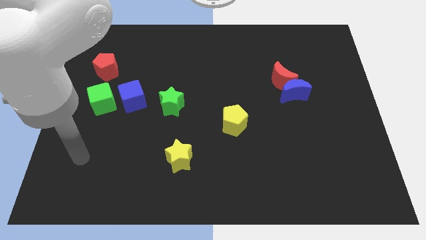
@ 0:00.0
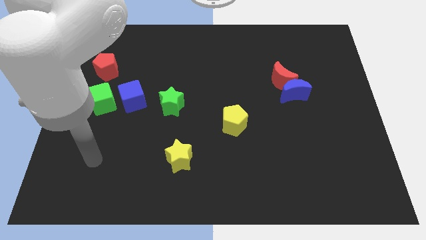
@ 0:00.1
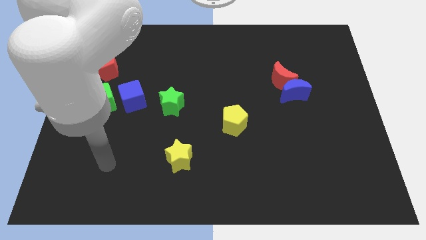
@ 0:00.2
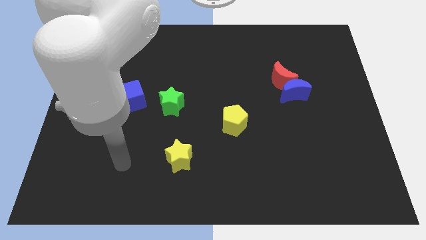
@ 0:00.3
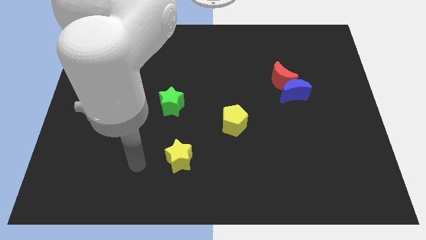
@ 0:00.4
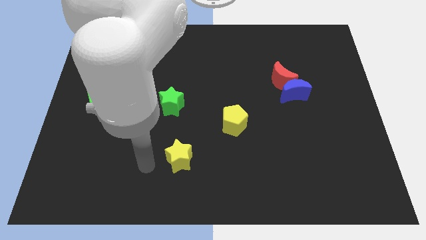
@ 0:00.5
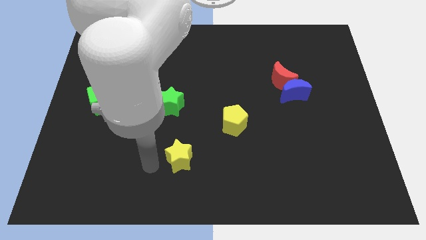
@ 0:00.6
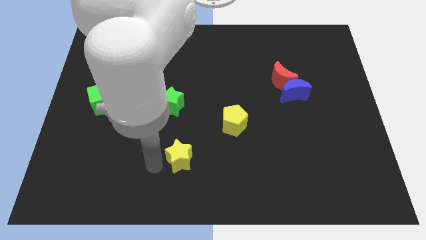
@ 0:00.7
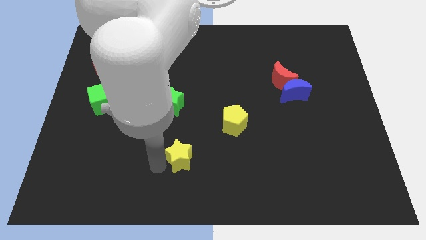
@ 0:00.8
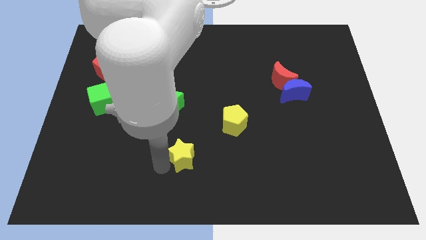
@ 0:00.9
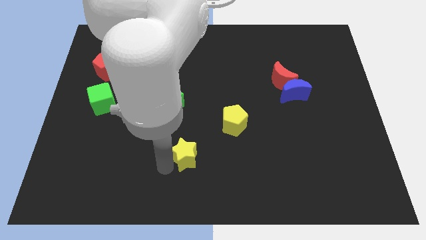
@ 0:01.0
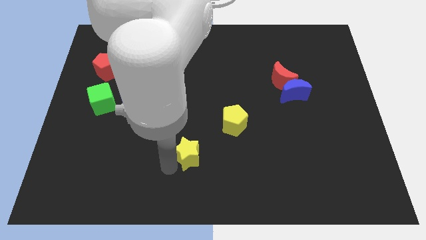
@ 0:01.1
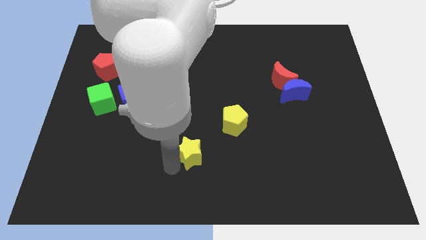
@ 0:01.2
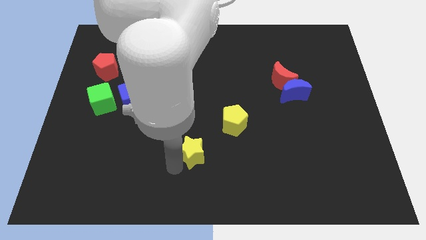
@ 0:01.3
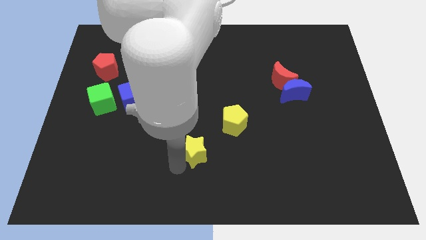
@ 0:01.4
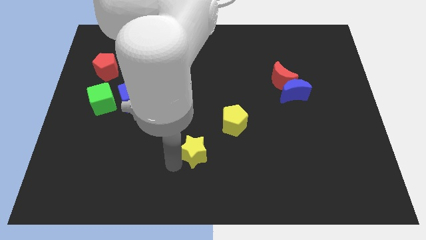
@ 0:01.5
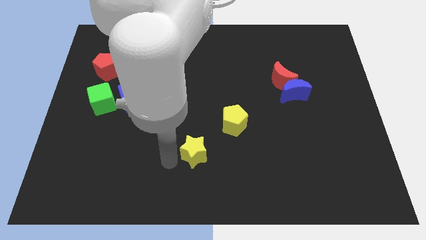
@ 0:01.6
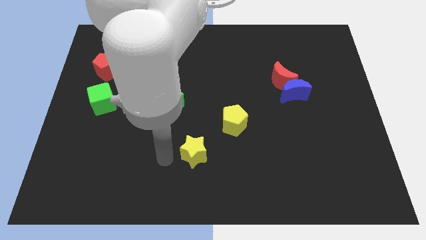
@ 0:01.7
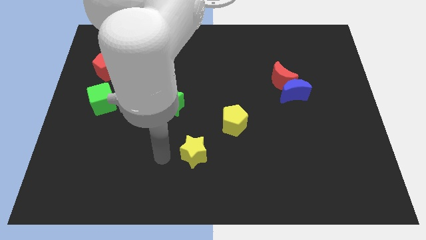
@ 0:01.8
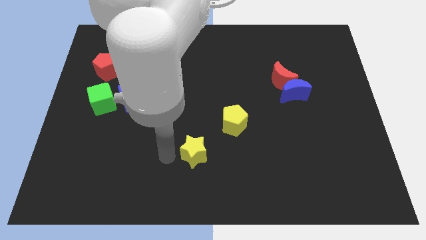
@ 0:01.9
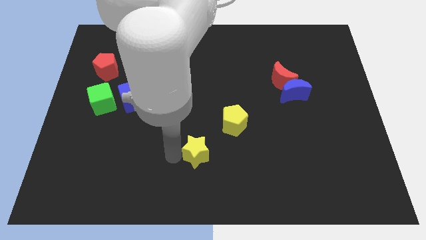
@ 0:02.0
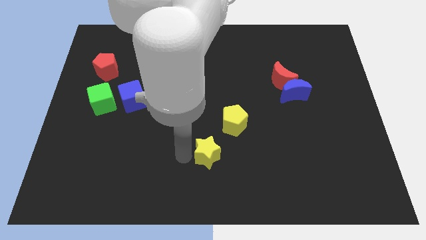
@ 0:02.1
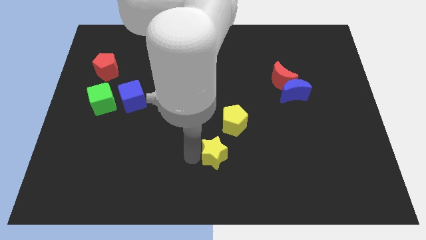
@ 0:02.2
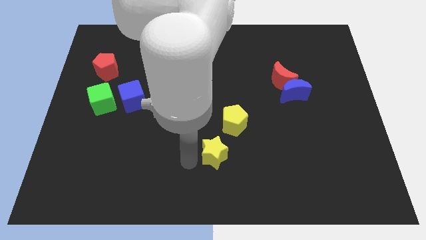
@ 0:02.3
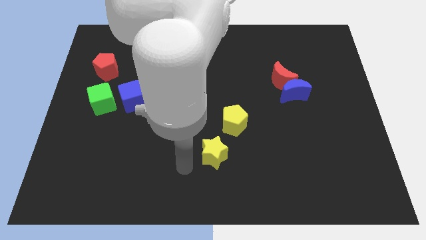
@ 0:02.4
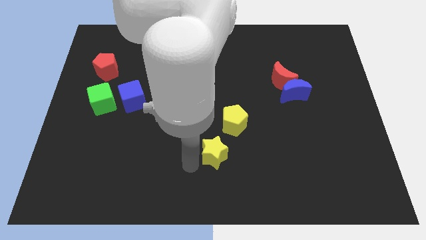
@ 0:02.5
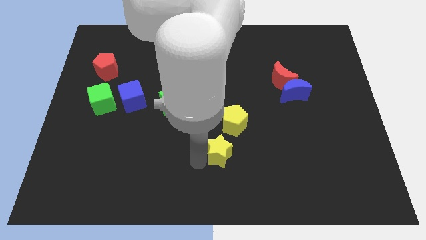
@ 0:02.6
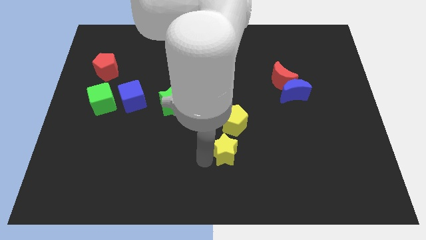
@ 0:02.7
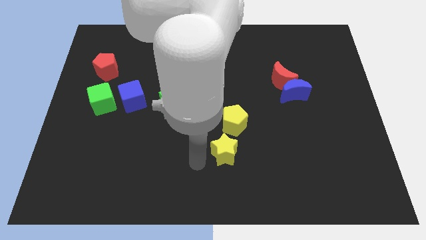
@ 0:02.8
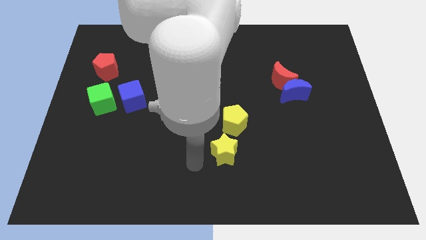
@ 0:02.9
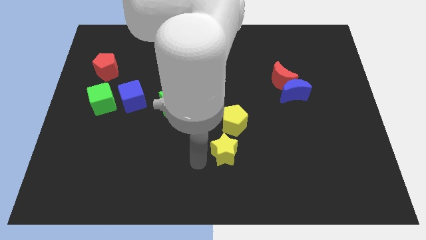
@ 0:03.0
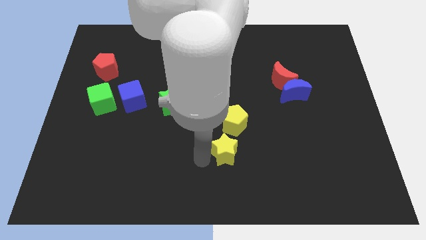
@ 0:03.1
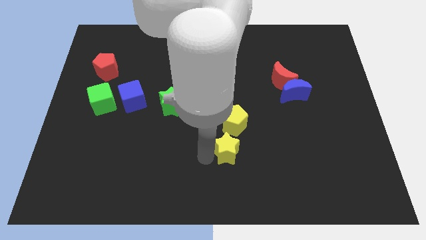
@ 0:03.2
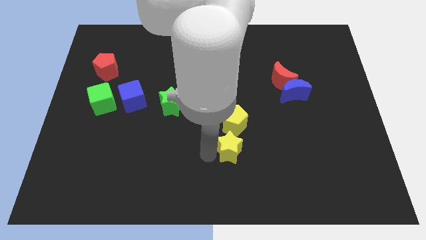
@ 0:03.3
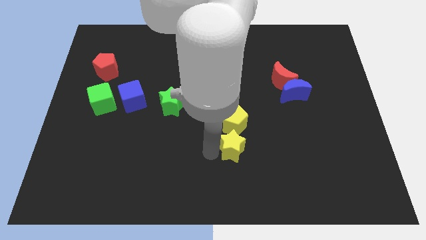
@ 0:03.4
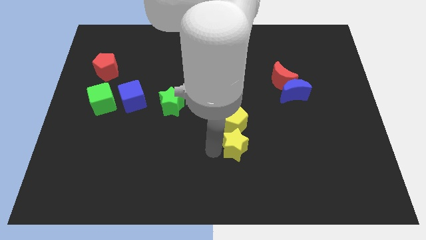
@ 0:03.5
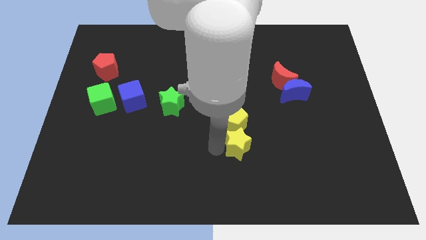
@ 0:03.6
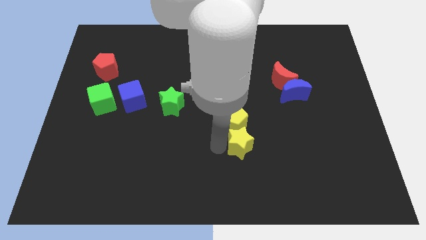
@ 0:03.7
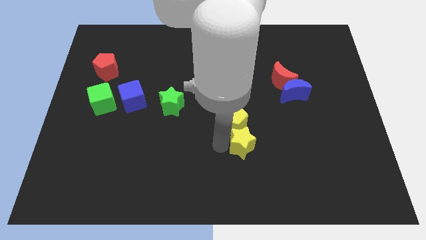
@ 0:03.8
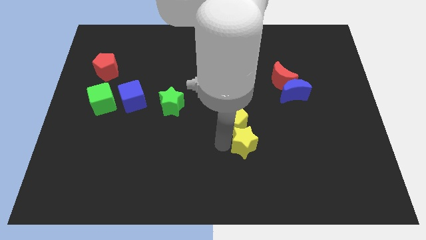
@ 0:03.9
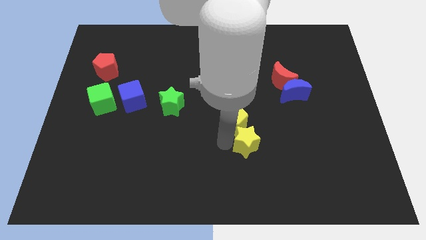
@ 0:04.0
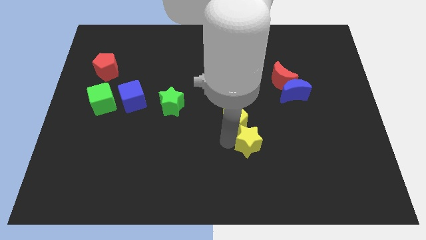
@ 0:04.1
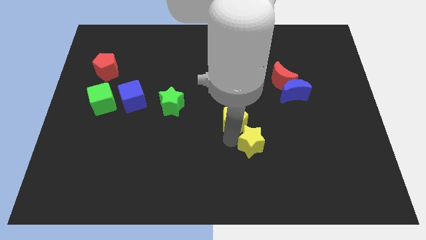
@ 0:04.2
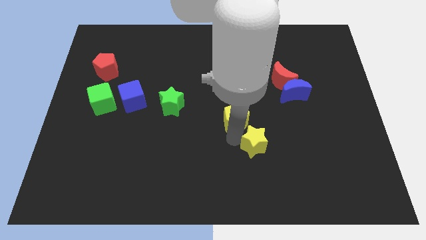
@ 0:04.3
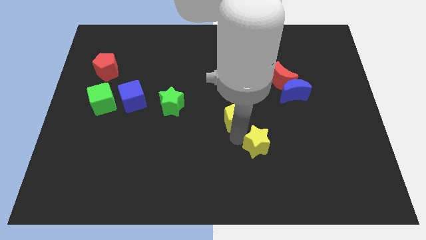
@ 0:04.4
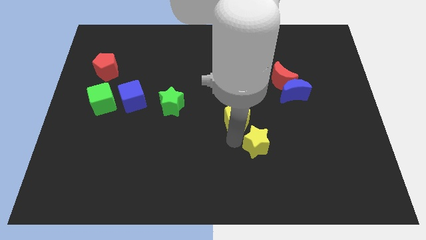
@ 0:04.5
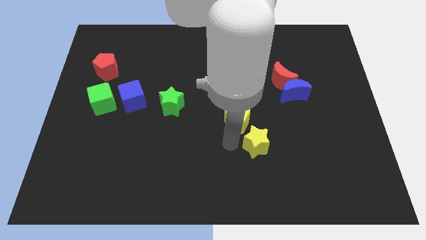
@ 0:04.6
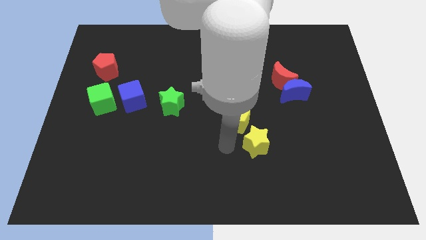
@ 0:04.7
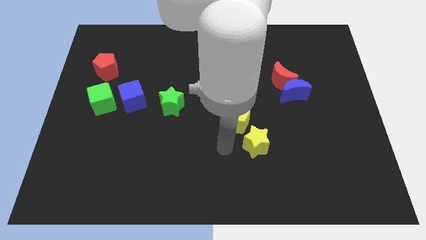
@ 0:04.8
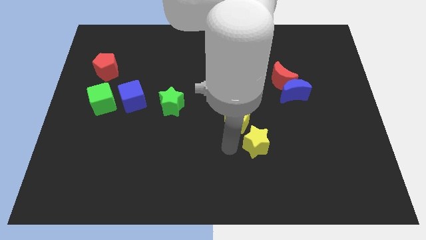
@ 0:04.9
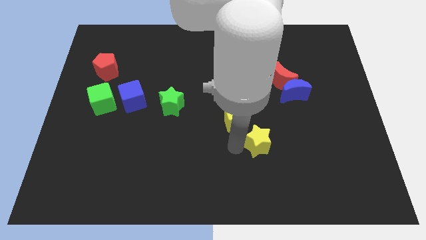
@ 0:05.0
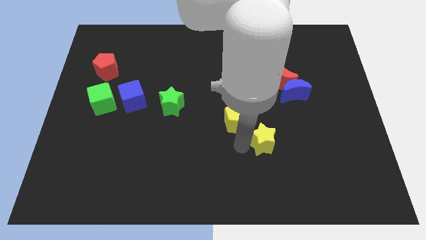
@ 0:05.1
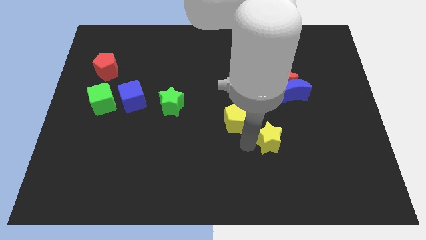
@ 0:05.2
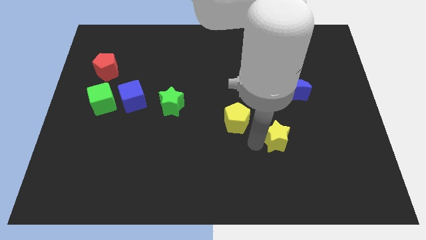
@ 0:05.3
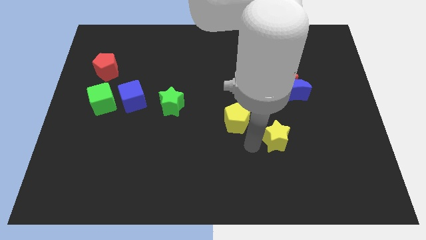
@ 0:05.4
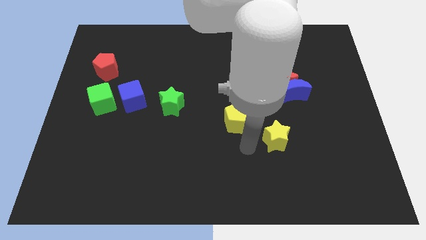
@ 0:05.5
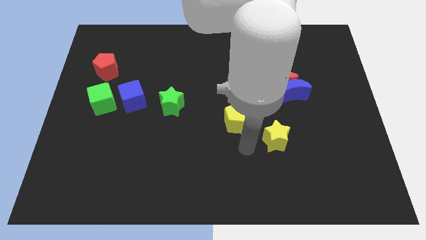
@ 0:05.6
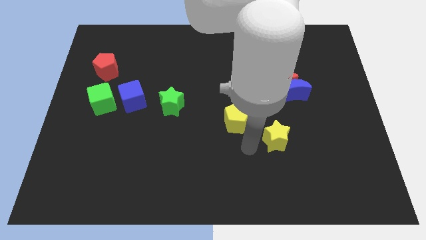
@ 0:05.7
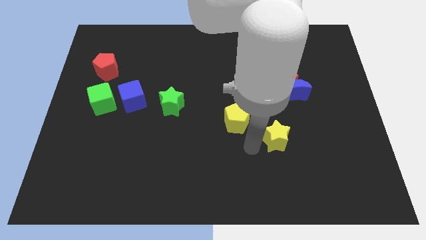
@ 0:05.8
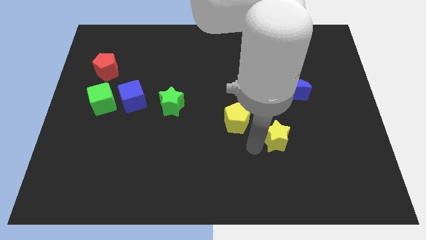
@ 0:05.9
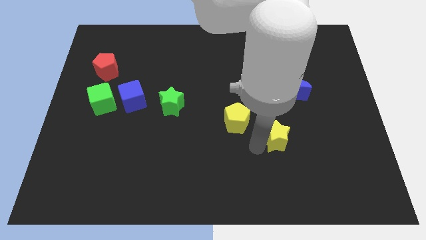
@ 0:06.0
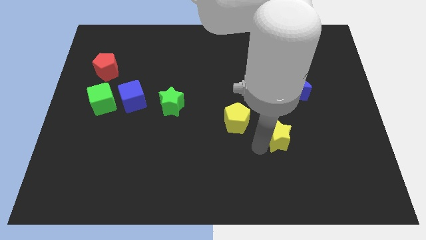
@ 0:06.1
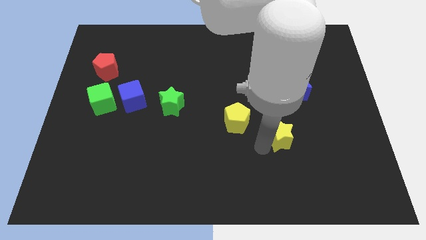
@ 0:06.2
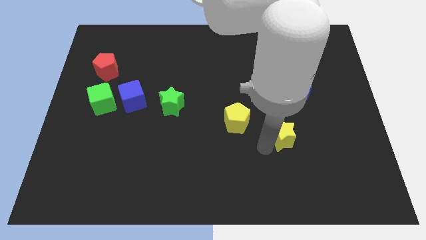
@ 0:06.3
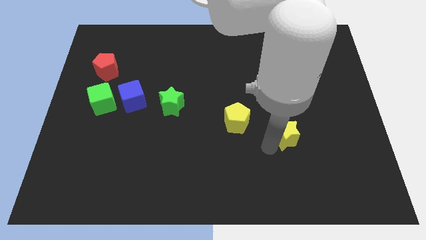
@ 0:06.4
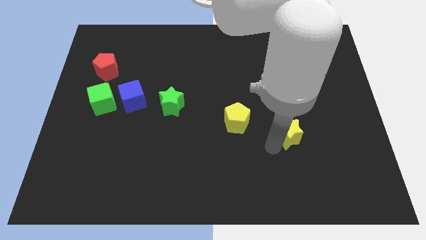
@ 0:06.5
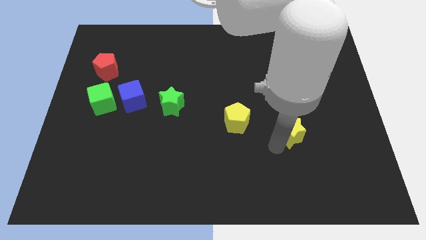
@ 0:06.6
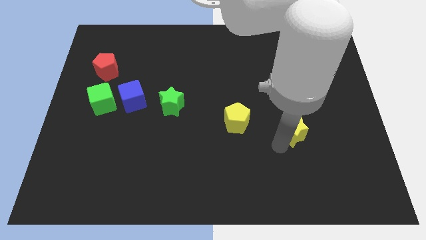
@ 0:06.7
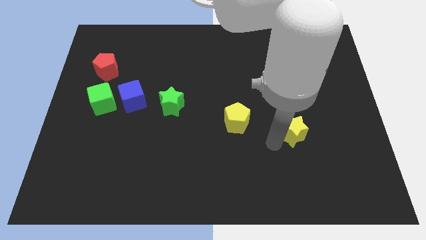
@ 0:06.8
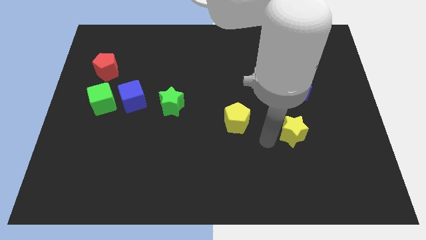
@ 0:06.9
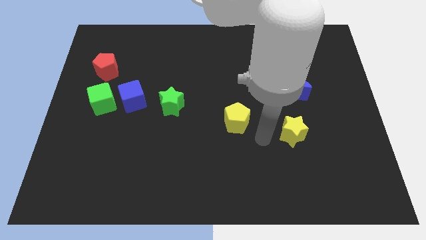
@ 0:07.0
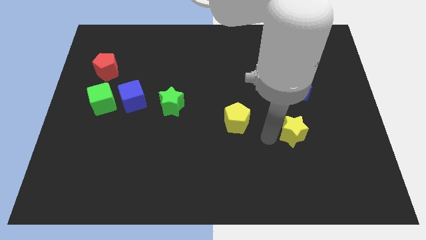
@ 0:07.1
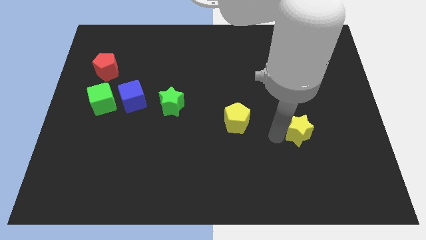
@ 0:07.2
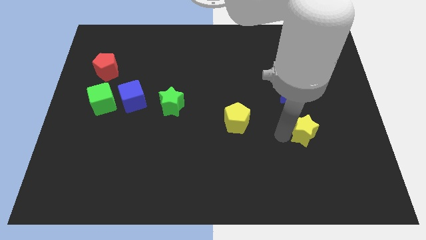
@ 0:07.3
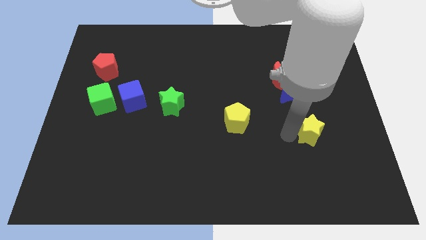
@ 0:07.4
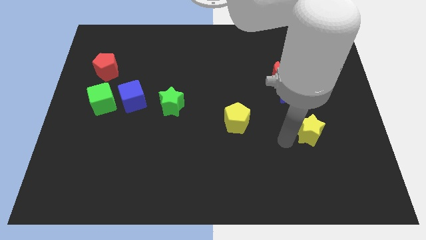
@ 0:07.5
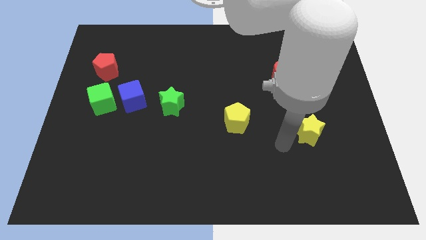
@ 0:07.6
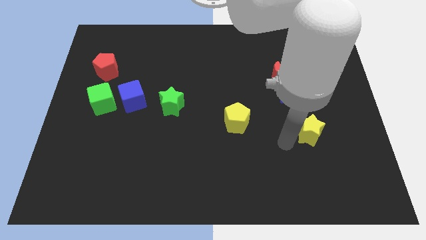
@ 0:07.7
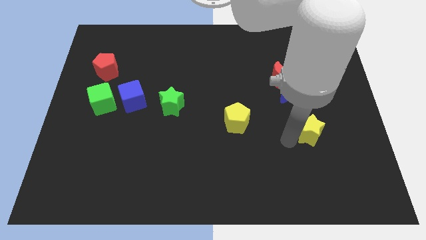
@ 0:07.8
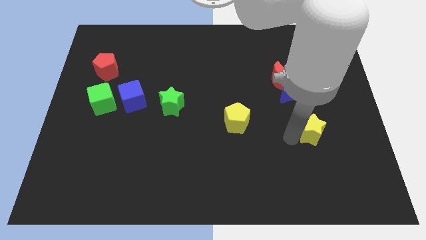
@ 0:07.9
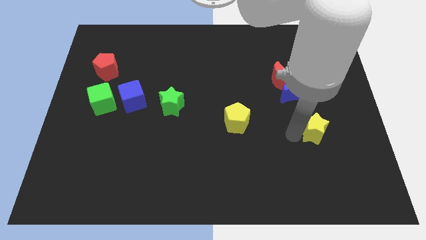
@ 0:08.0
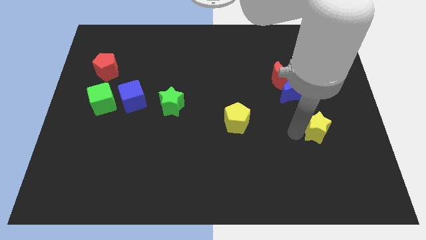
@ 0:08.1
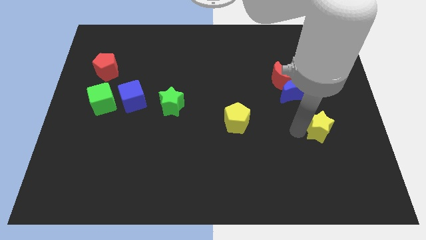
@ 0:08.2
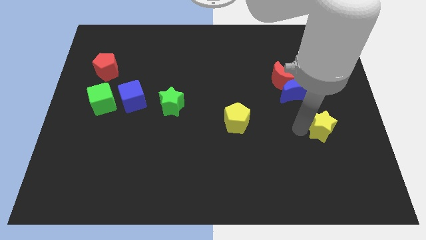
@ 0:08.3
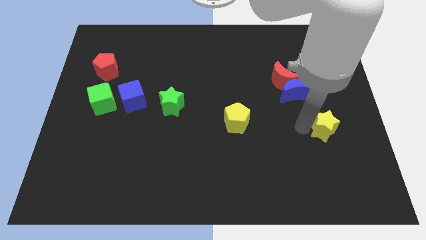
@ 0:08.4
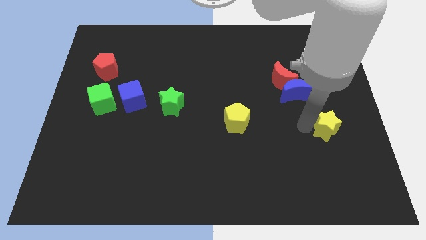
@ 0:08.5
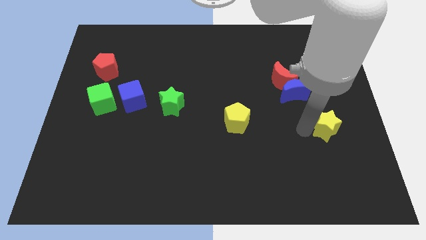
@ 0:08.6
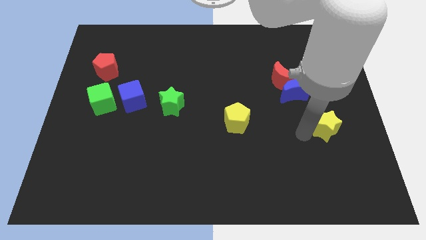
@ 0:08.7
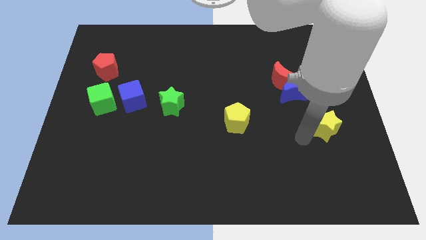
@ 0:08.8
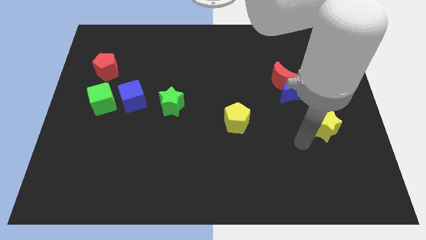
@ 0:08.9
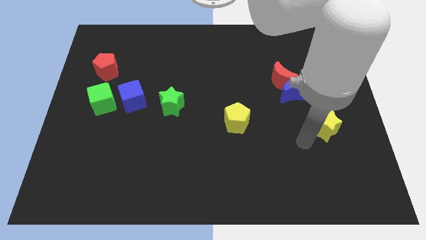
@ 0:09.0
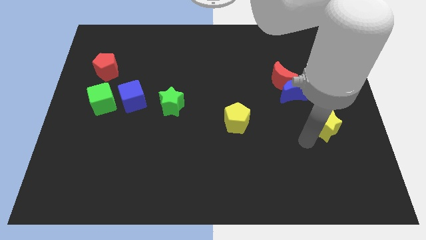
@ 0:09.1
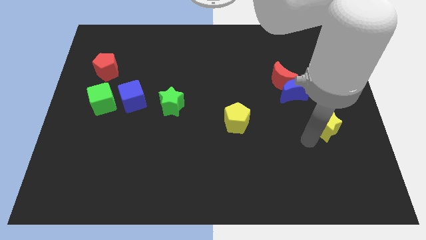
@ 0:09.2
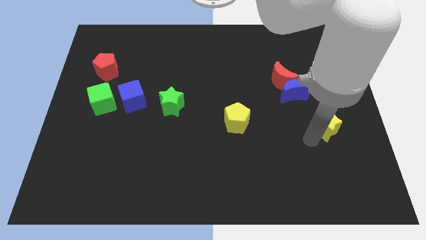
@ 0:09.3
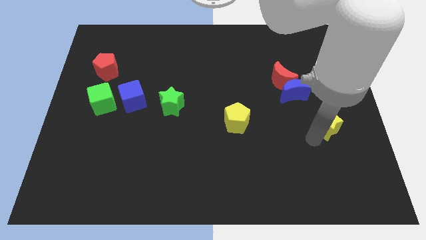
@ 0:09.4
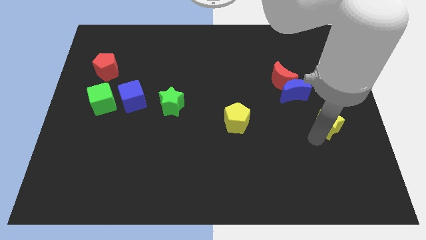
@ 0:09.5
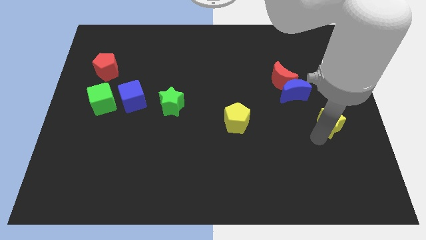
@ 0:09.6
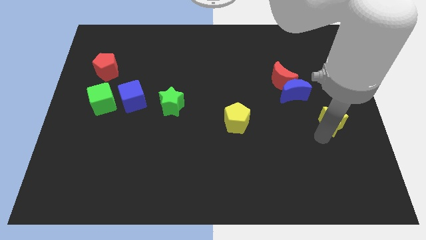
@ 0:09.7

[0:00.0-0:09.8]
slide the yellow star to the center right
